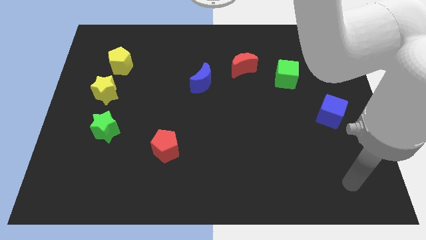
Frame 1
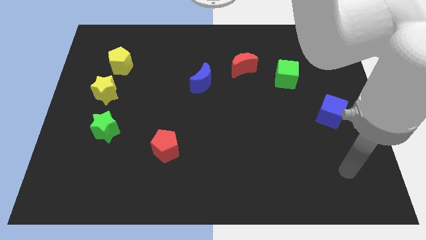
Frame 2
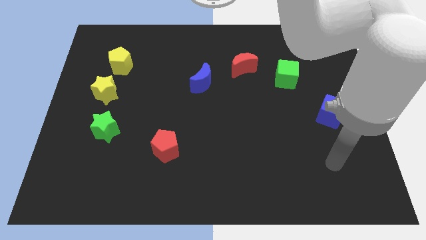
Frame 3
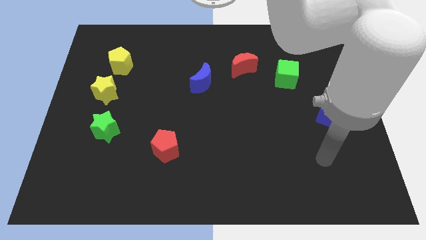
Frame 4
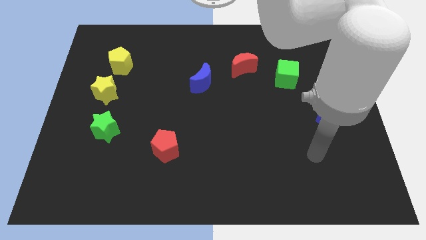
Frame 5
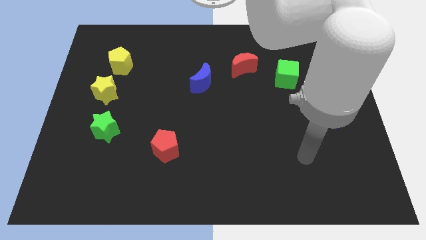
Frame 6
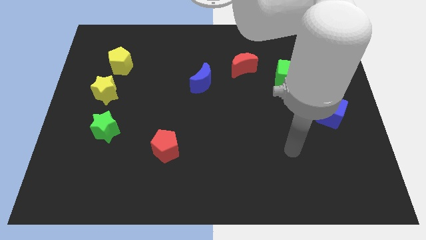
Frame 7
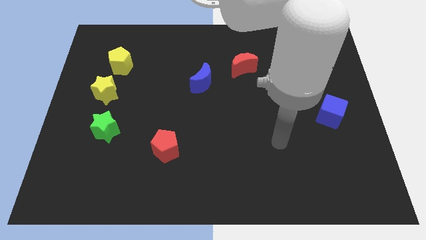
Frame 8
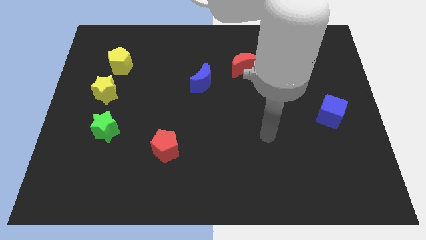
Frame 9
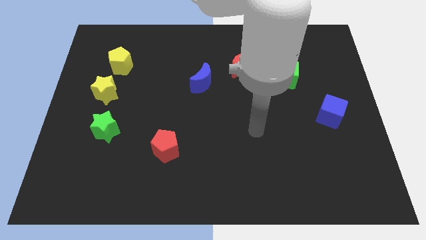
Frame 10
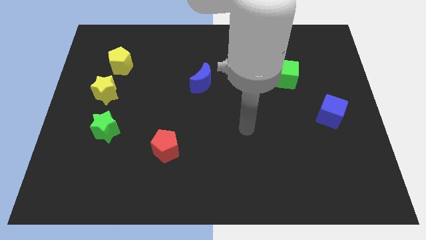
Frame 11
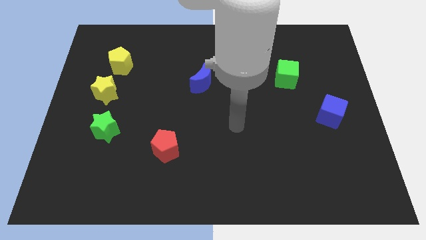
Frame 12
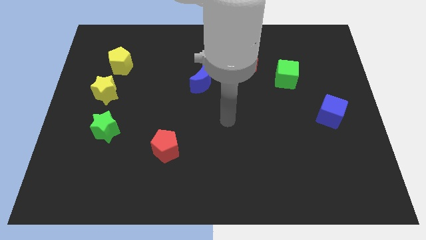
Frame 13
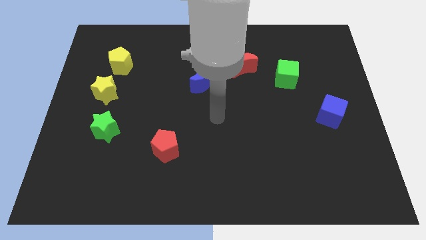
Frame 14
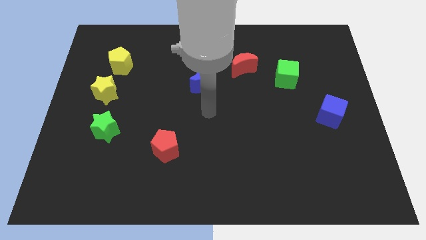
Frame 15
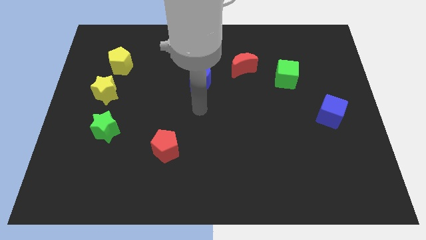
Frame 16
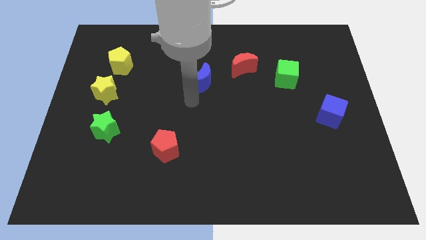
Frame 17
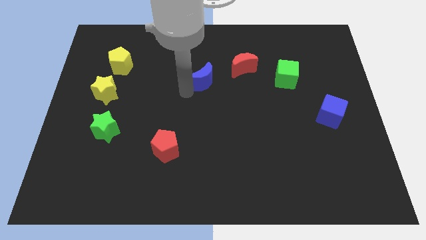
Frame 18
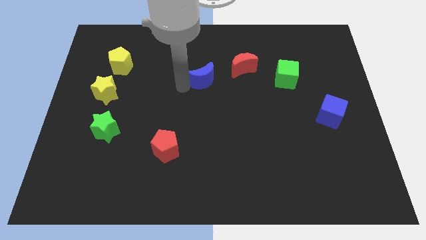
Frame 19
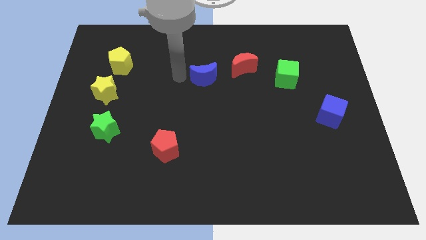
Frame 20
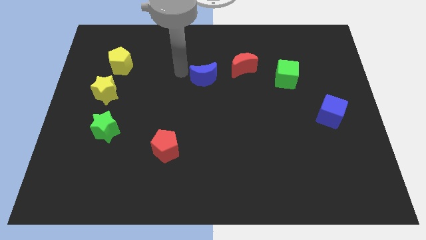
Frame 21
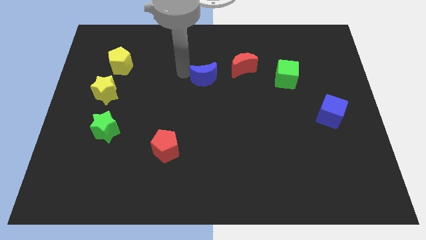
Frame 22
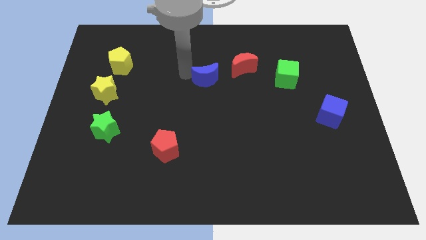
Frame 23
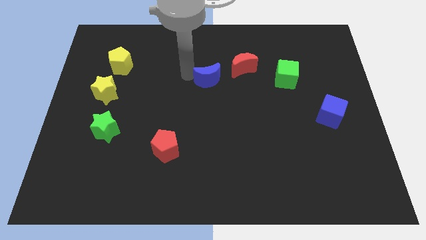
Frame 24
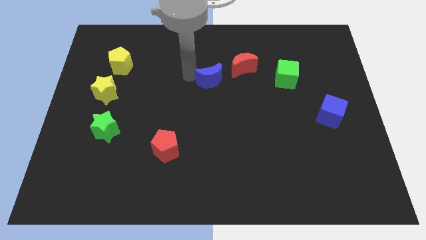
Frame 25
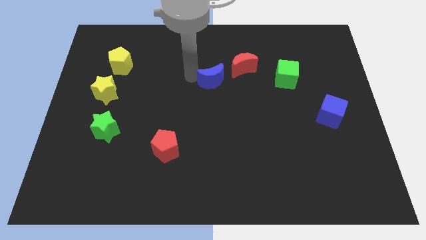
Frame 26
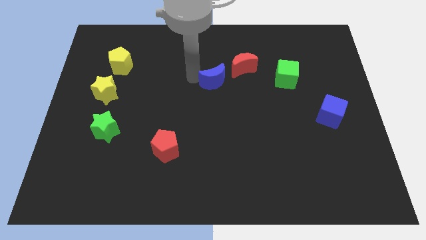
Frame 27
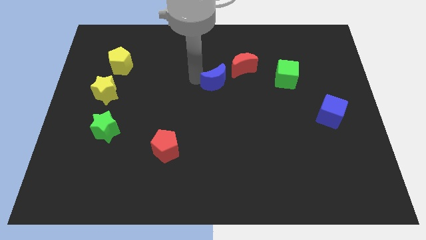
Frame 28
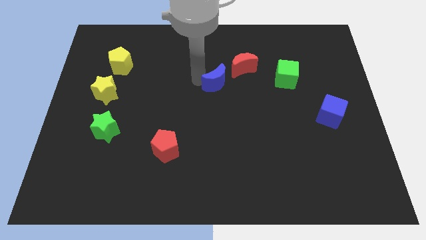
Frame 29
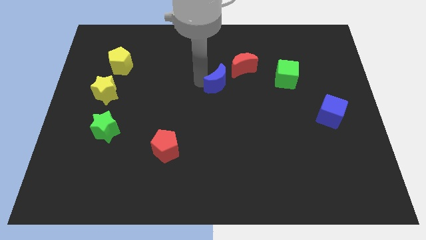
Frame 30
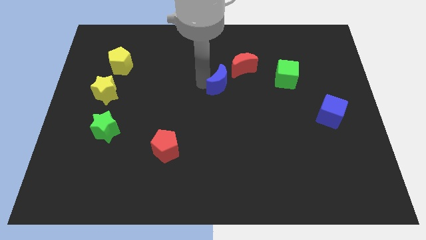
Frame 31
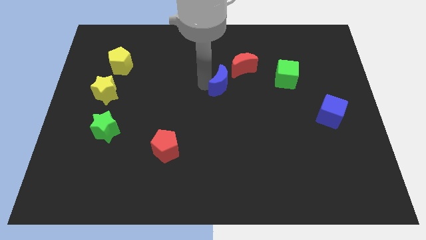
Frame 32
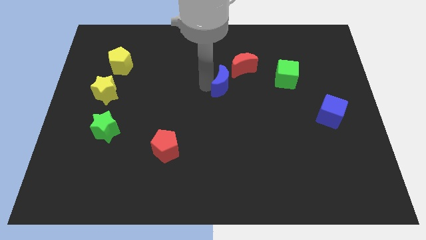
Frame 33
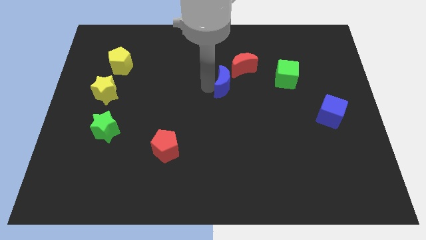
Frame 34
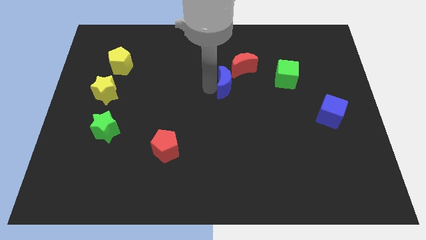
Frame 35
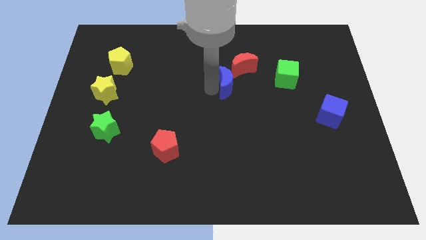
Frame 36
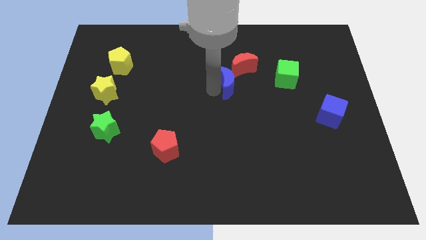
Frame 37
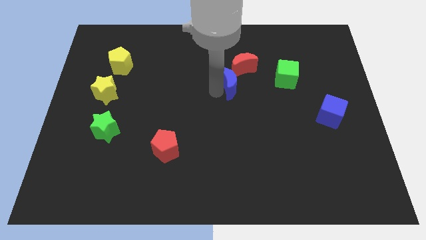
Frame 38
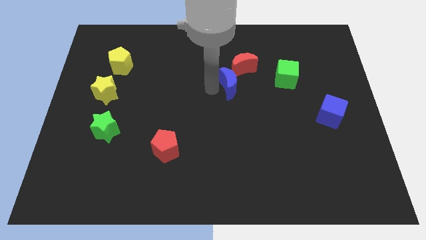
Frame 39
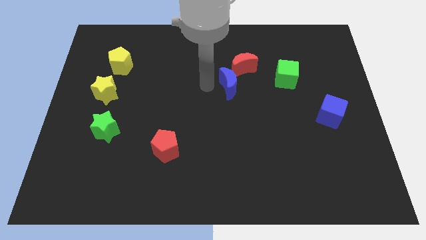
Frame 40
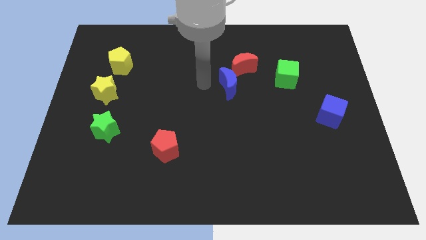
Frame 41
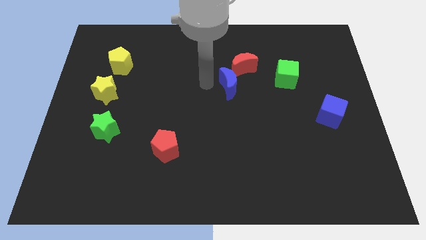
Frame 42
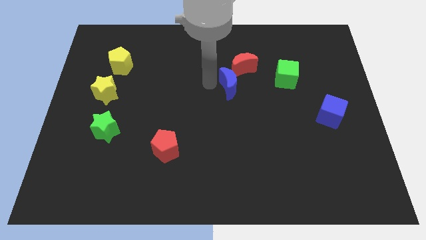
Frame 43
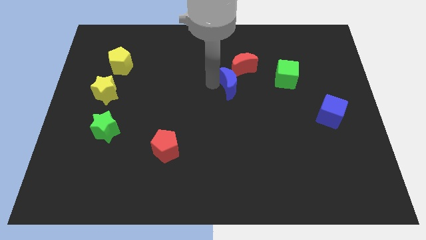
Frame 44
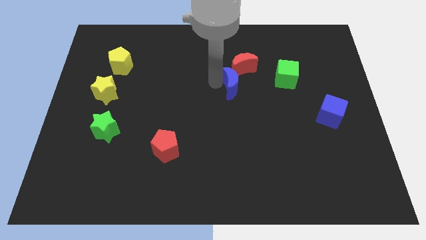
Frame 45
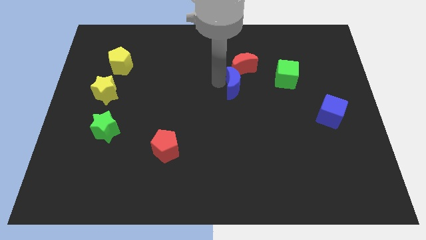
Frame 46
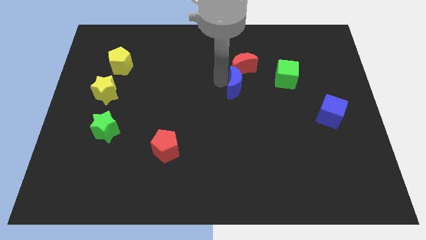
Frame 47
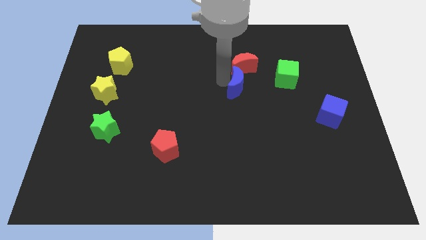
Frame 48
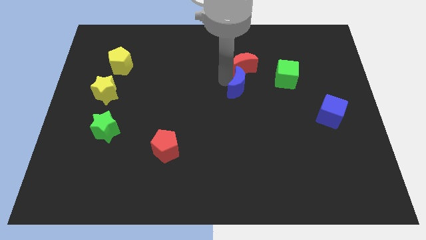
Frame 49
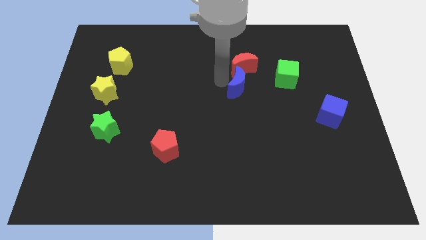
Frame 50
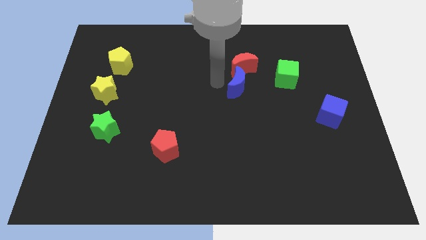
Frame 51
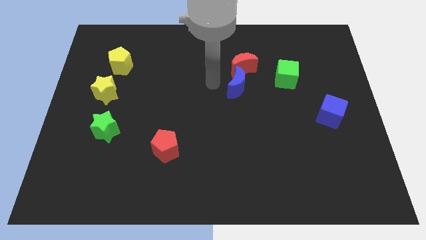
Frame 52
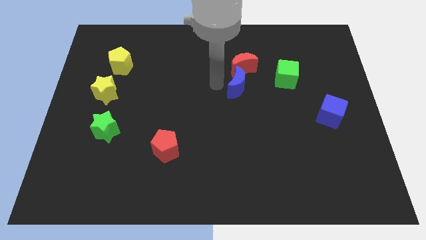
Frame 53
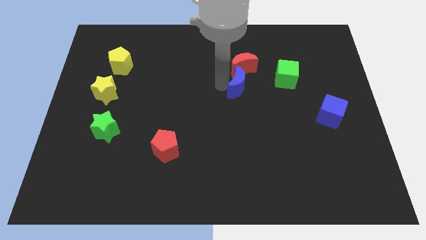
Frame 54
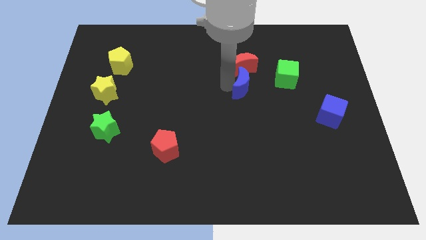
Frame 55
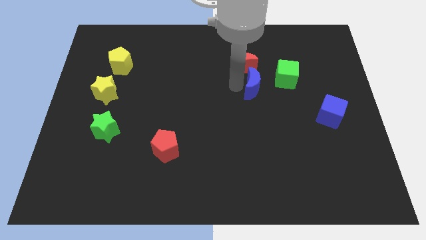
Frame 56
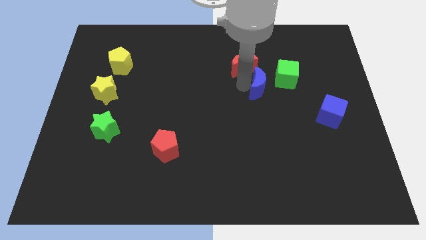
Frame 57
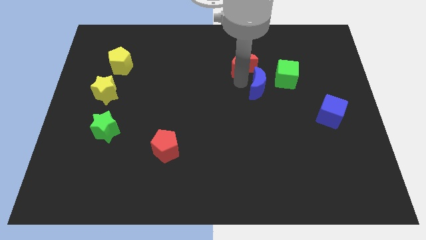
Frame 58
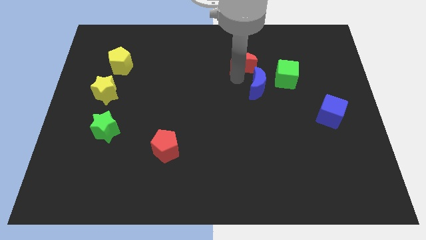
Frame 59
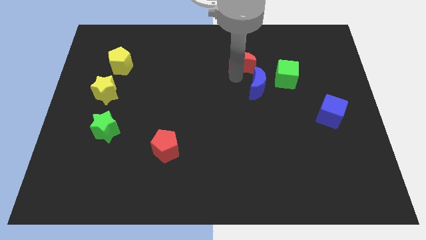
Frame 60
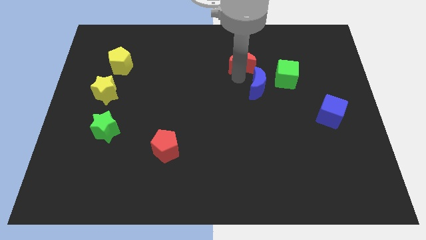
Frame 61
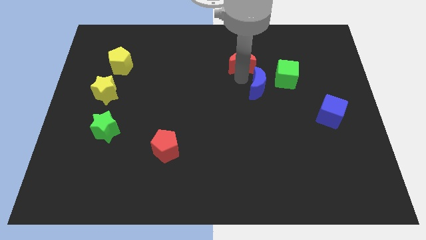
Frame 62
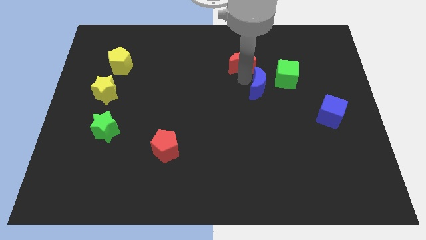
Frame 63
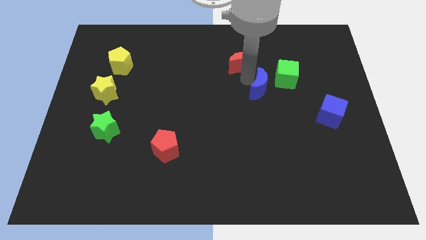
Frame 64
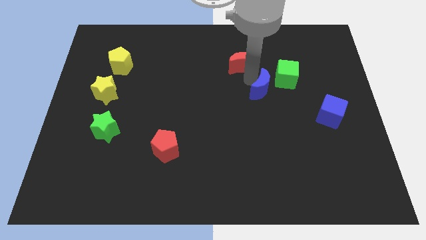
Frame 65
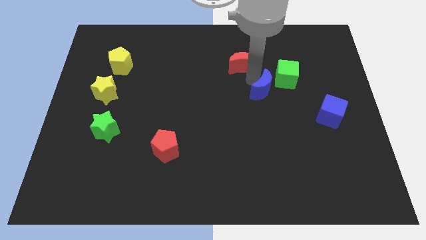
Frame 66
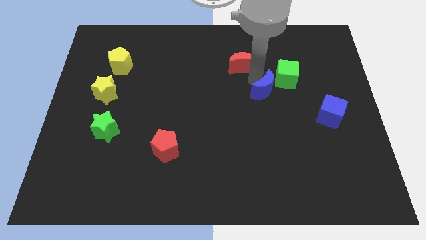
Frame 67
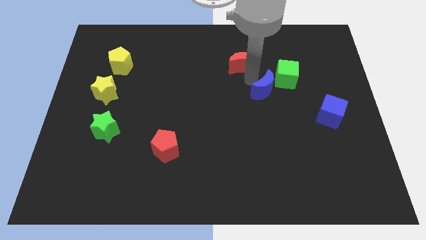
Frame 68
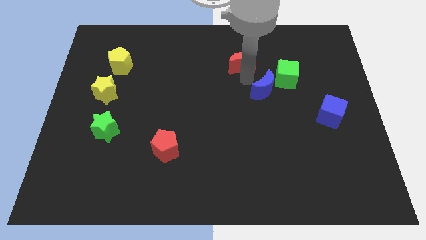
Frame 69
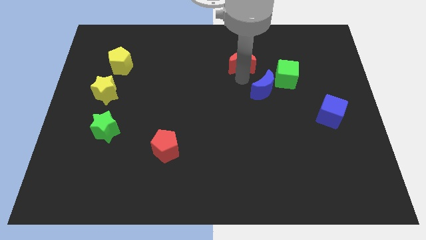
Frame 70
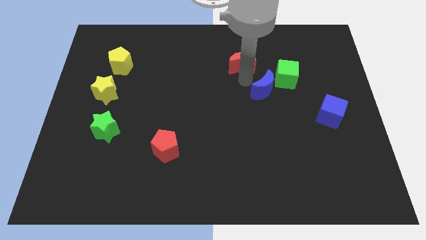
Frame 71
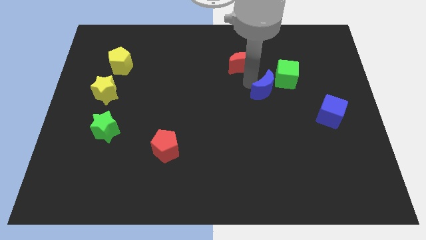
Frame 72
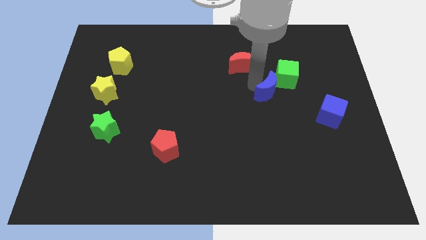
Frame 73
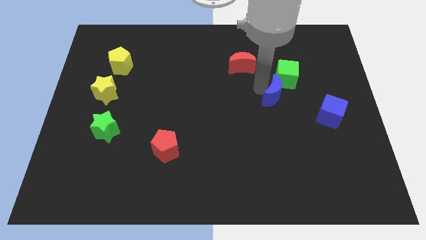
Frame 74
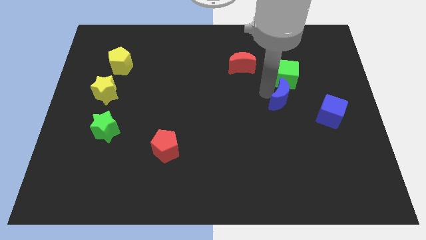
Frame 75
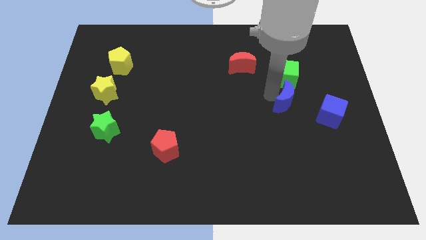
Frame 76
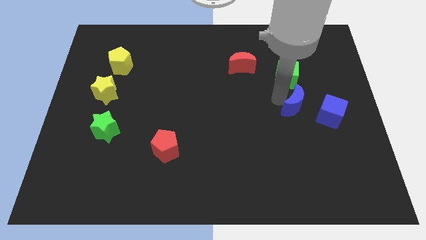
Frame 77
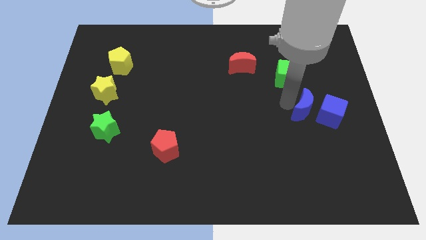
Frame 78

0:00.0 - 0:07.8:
move the blue moon close to the blue cube

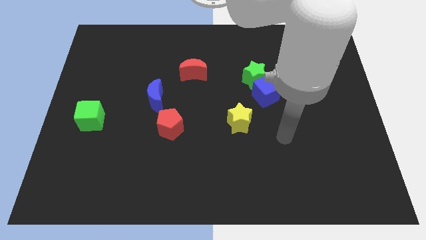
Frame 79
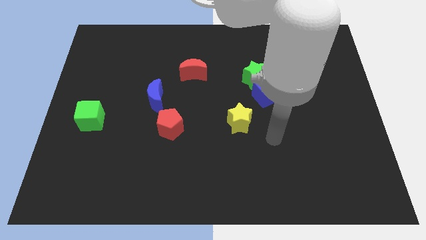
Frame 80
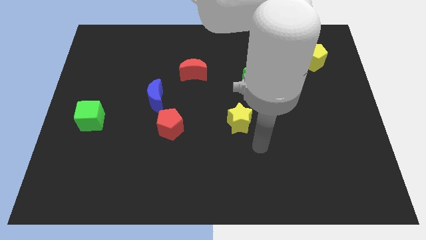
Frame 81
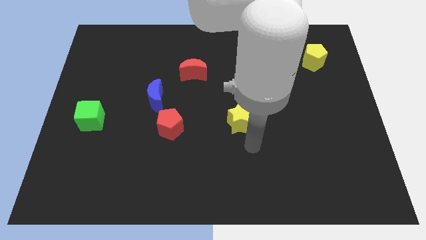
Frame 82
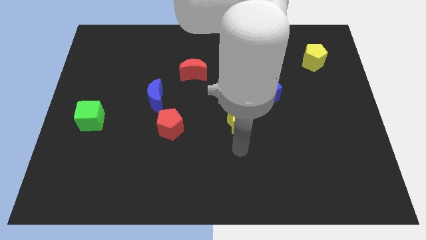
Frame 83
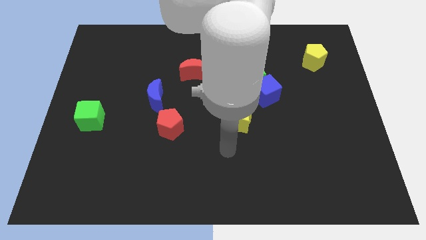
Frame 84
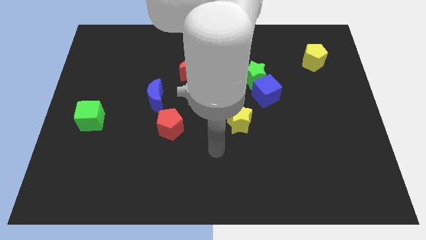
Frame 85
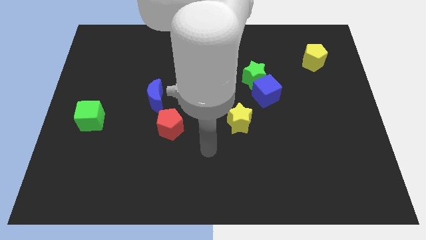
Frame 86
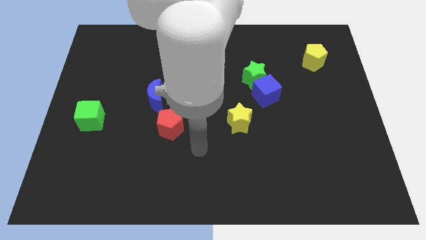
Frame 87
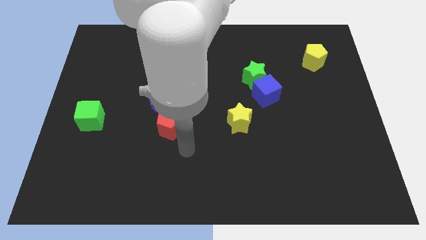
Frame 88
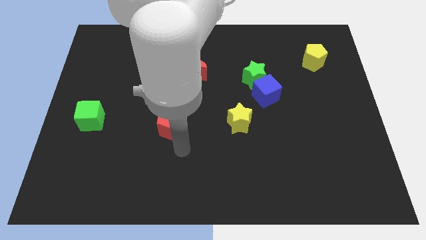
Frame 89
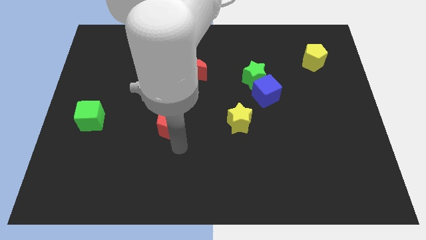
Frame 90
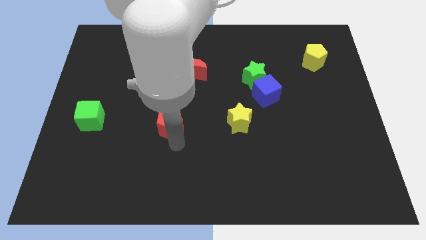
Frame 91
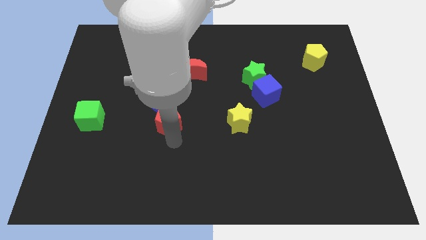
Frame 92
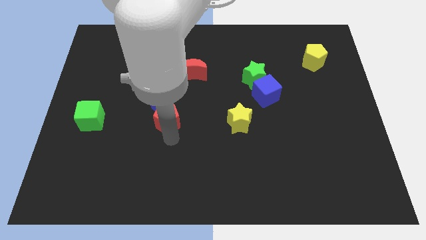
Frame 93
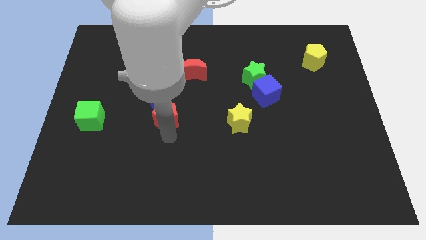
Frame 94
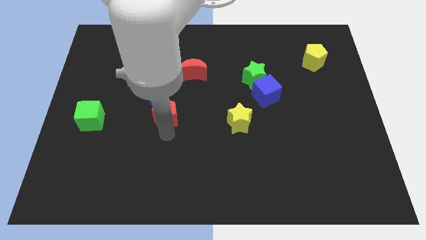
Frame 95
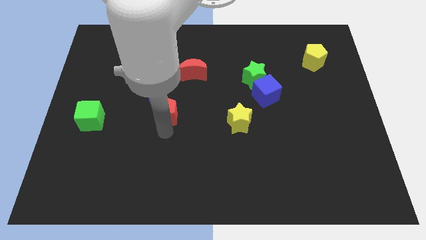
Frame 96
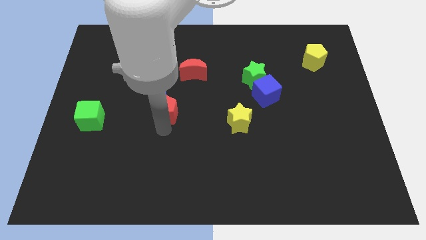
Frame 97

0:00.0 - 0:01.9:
push the red pentagon to the blue moon
